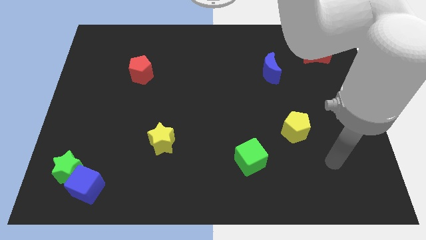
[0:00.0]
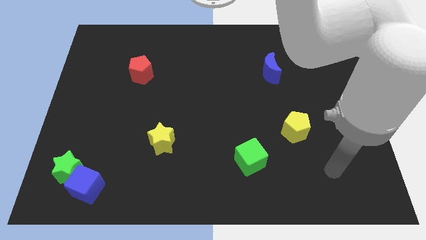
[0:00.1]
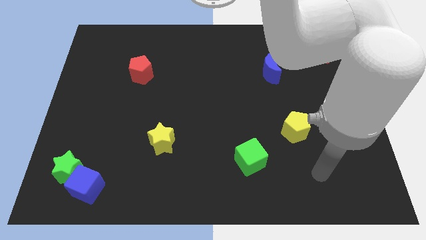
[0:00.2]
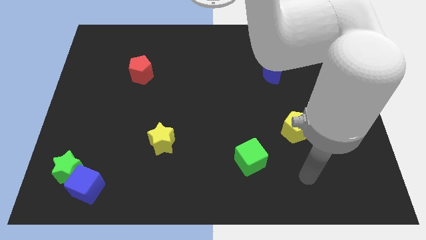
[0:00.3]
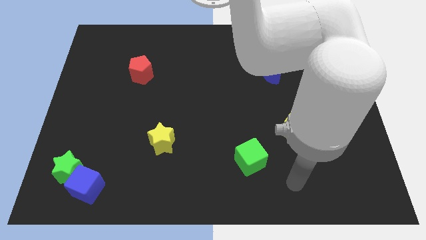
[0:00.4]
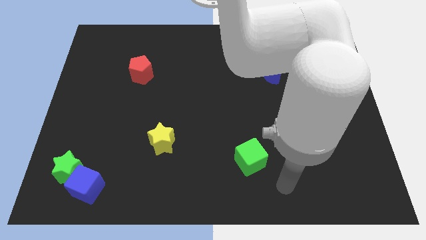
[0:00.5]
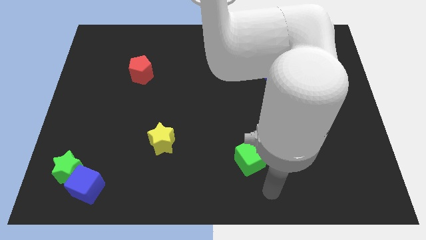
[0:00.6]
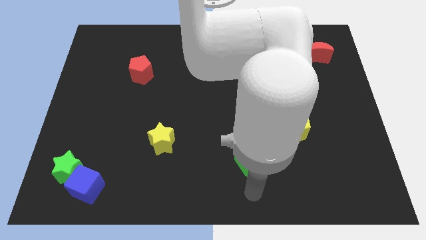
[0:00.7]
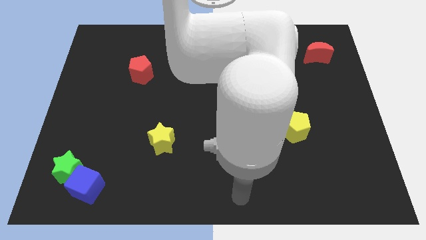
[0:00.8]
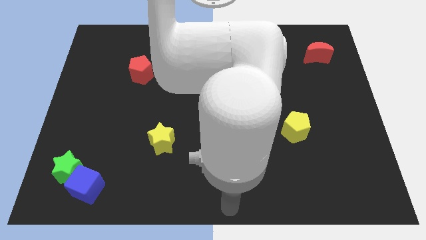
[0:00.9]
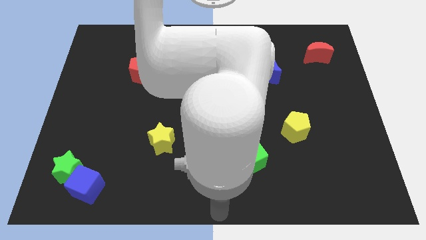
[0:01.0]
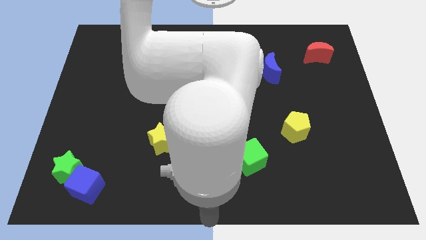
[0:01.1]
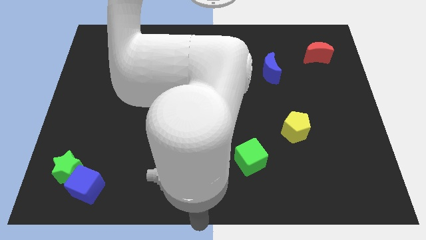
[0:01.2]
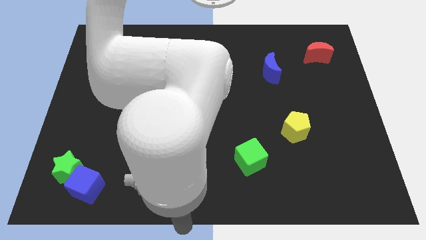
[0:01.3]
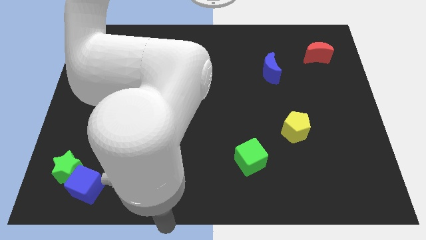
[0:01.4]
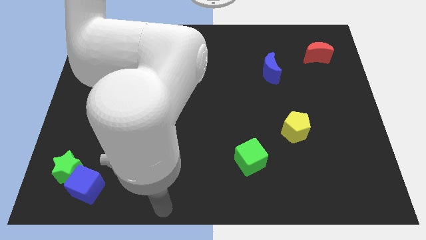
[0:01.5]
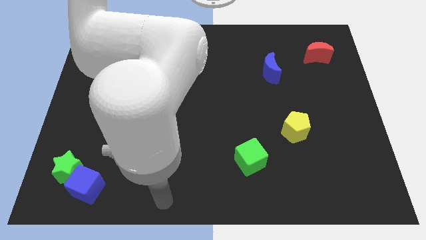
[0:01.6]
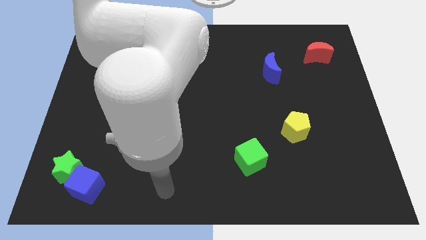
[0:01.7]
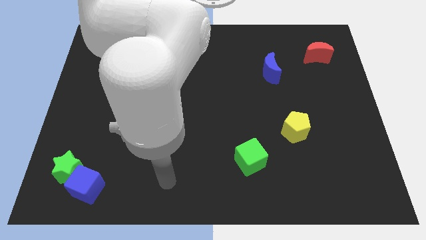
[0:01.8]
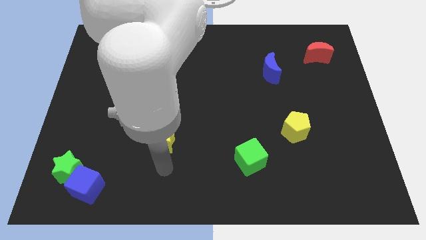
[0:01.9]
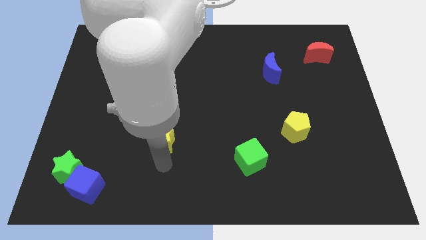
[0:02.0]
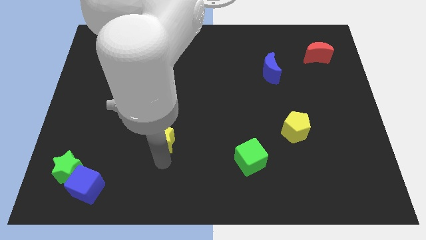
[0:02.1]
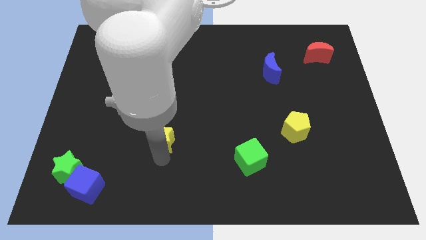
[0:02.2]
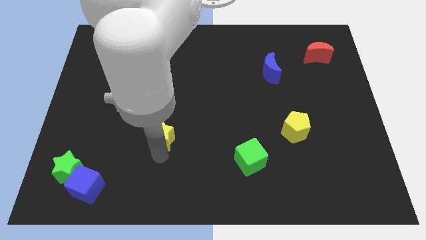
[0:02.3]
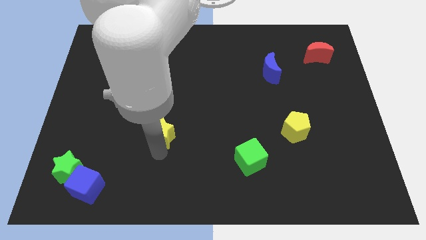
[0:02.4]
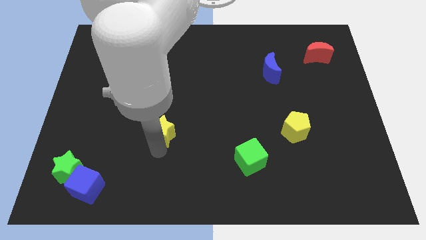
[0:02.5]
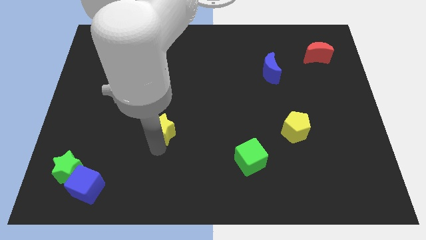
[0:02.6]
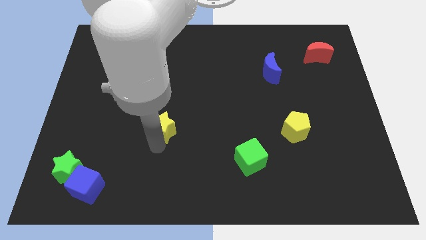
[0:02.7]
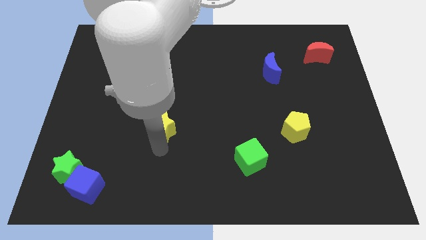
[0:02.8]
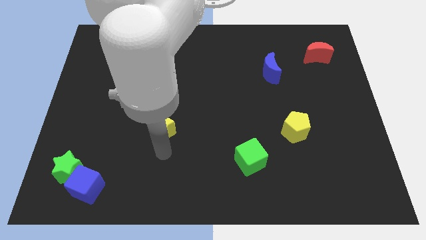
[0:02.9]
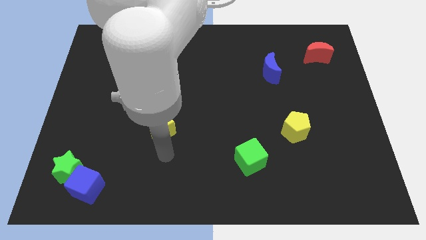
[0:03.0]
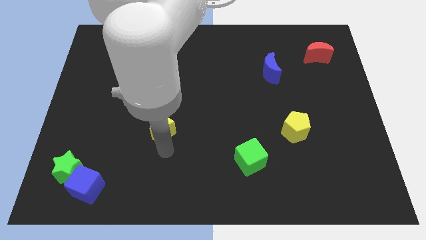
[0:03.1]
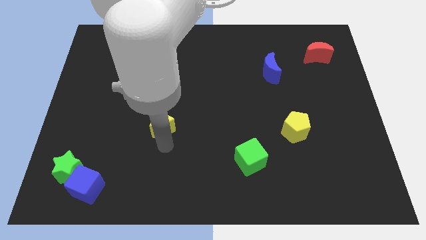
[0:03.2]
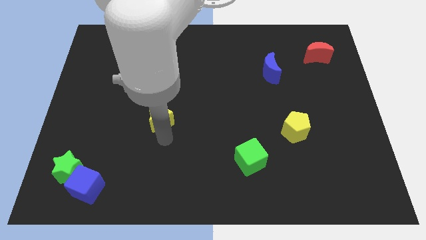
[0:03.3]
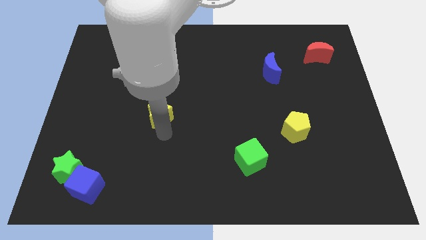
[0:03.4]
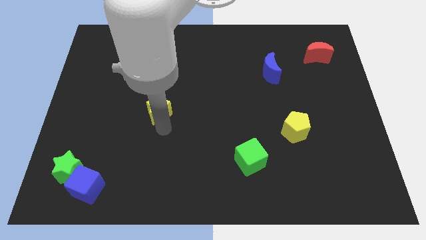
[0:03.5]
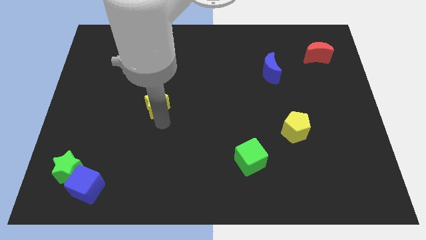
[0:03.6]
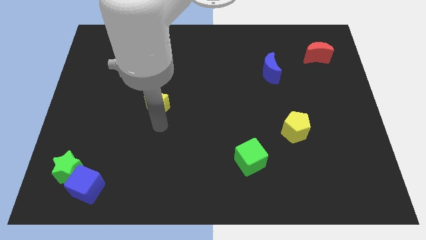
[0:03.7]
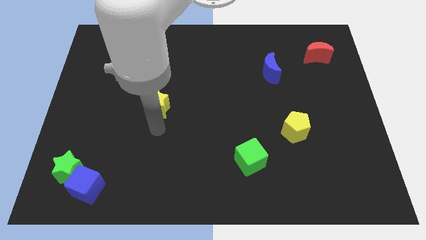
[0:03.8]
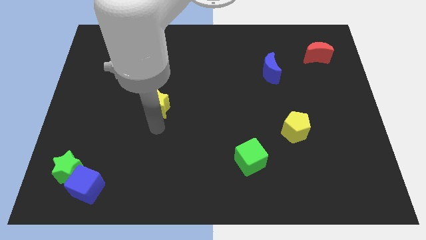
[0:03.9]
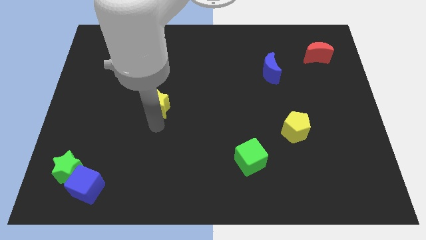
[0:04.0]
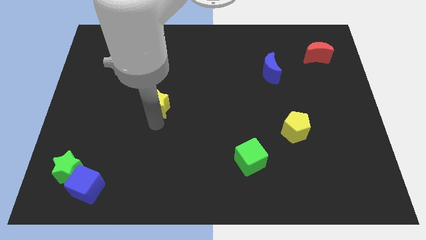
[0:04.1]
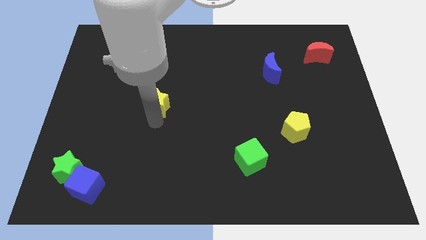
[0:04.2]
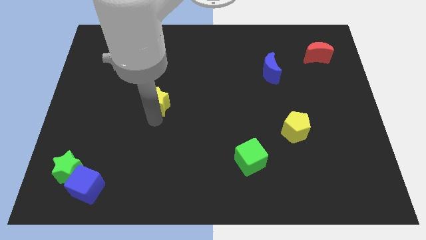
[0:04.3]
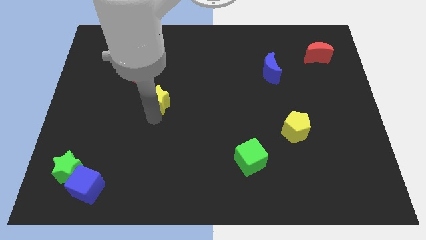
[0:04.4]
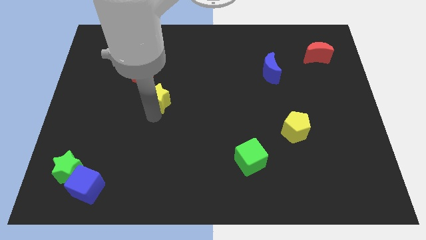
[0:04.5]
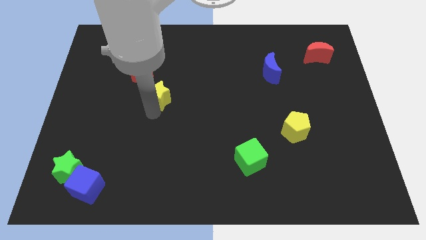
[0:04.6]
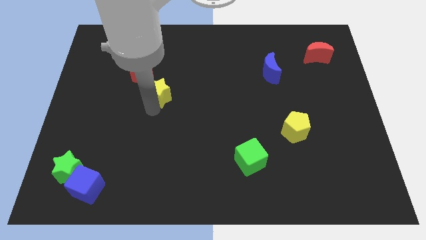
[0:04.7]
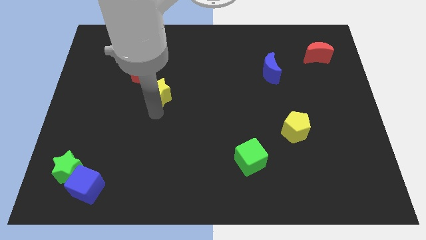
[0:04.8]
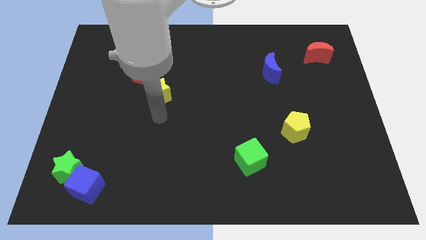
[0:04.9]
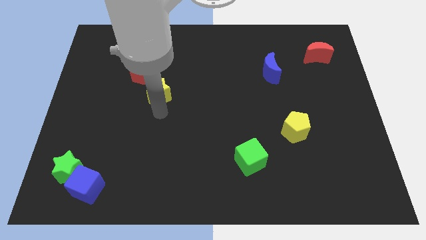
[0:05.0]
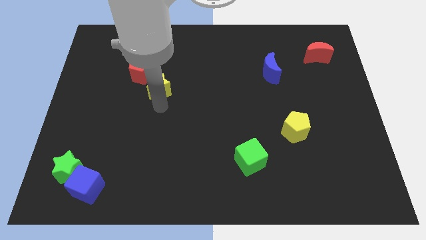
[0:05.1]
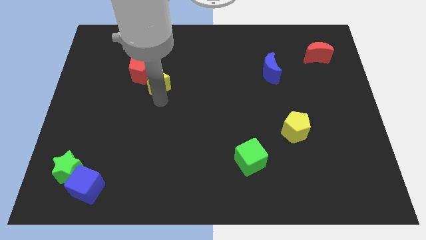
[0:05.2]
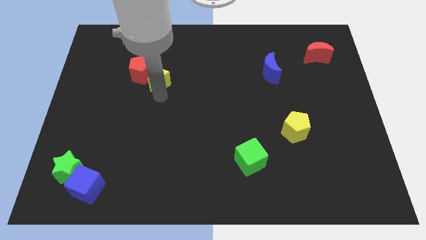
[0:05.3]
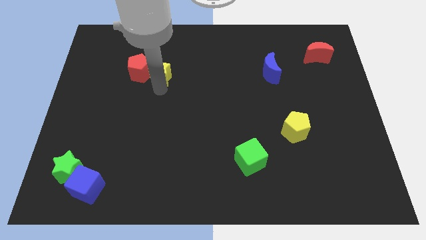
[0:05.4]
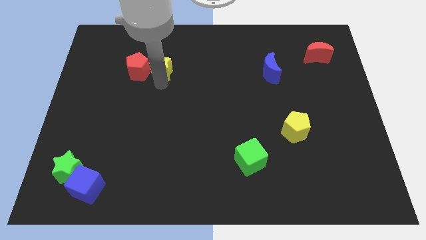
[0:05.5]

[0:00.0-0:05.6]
put the yellow star to the top right side of the red pentagon

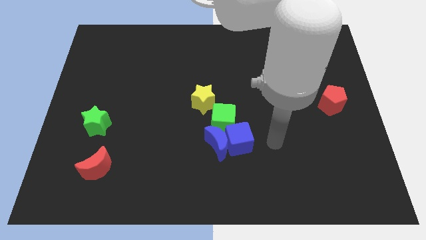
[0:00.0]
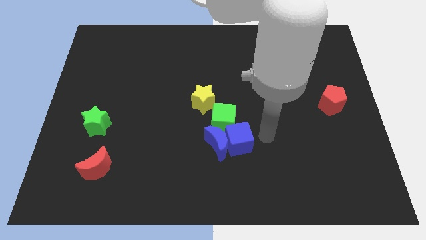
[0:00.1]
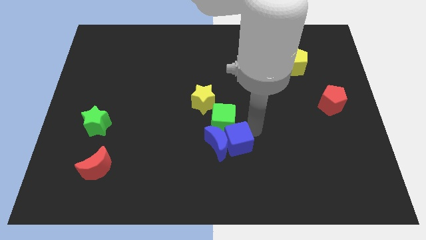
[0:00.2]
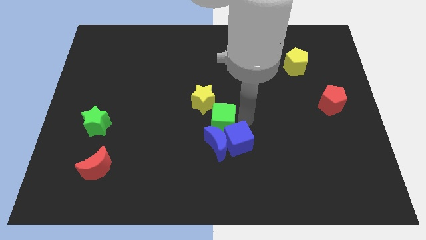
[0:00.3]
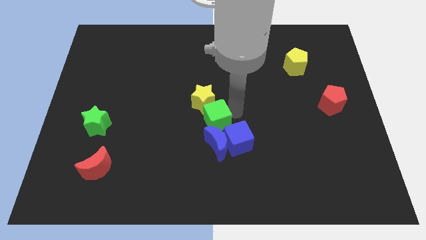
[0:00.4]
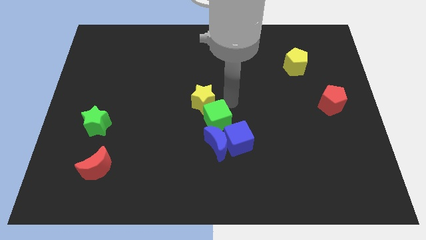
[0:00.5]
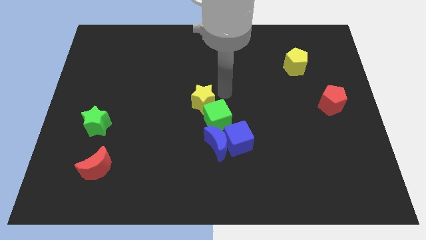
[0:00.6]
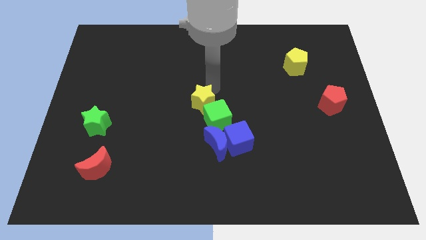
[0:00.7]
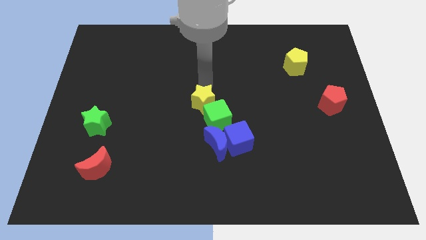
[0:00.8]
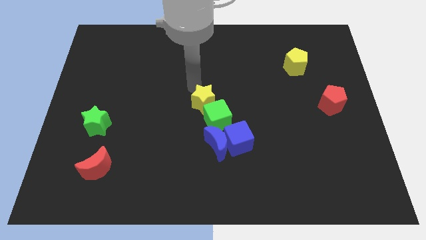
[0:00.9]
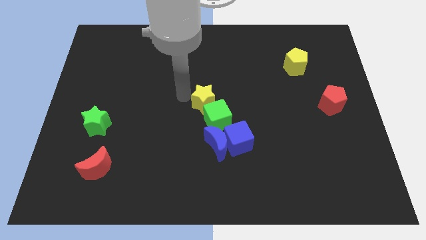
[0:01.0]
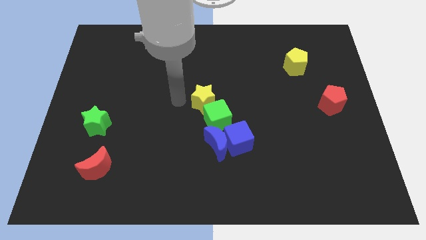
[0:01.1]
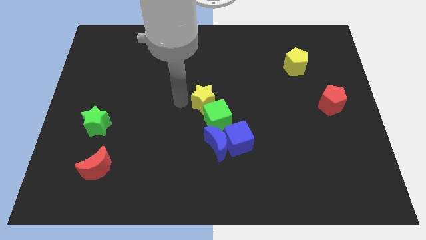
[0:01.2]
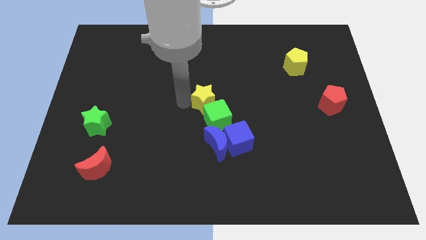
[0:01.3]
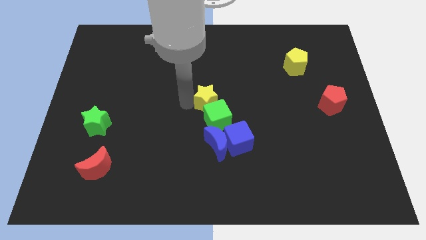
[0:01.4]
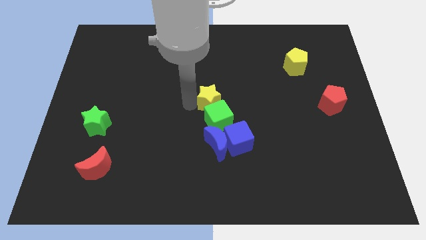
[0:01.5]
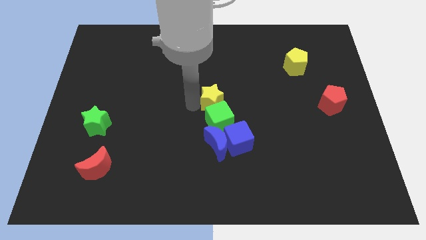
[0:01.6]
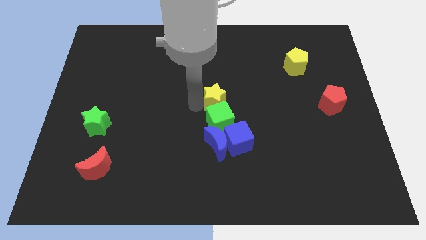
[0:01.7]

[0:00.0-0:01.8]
slide the yellow star to the top of the blue cube
